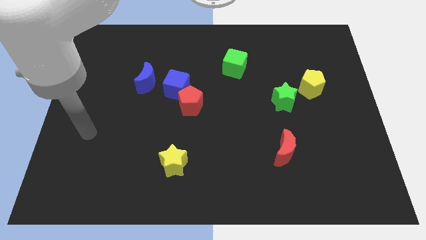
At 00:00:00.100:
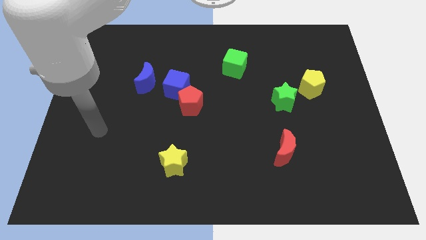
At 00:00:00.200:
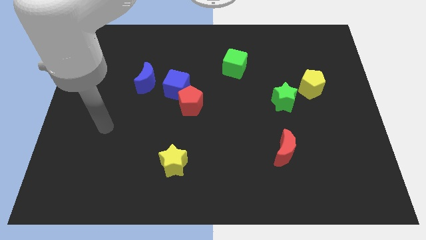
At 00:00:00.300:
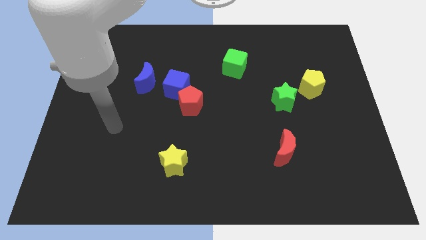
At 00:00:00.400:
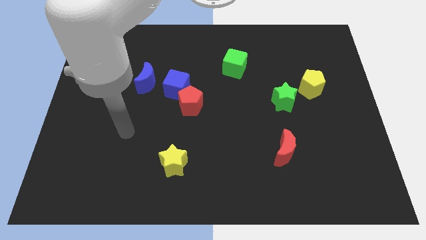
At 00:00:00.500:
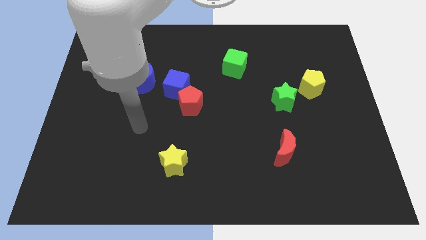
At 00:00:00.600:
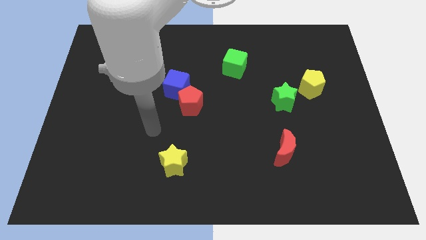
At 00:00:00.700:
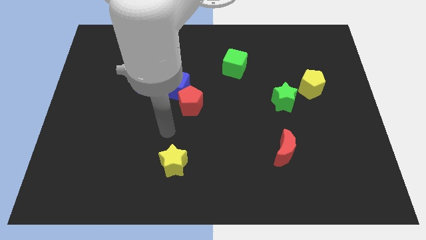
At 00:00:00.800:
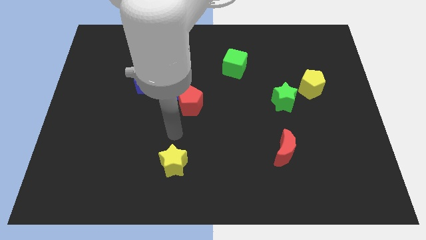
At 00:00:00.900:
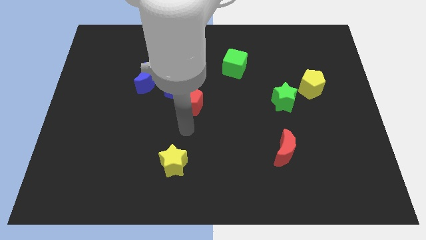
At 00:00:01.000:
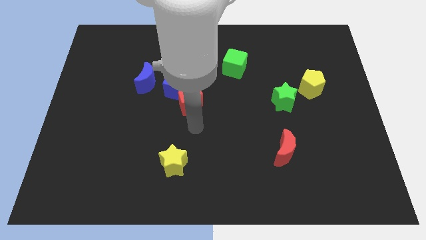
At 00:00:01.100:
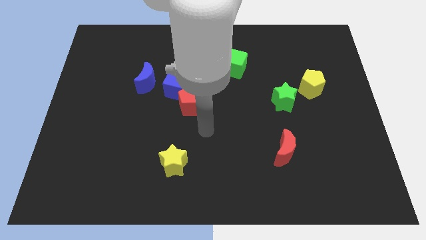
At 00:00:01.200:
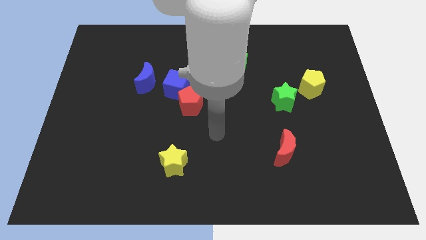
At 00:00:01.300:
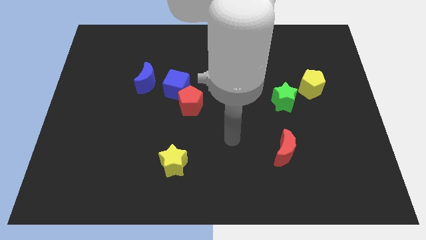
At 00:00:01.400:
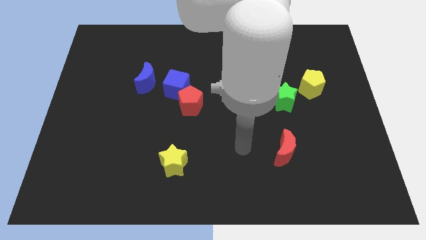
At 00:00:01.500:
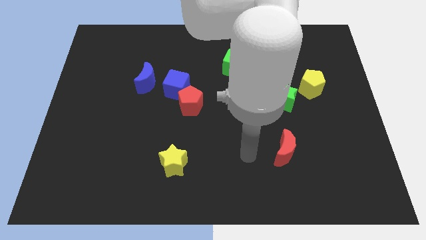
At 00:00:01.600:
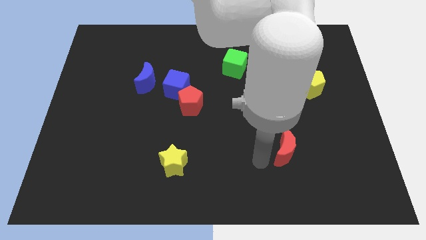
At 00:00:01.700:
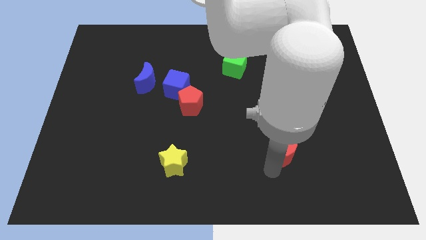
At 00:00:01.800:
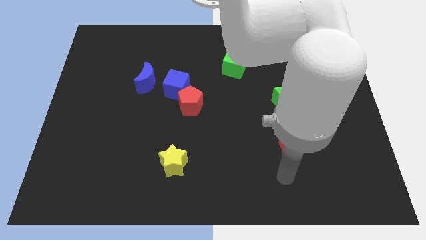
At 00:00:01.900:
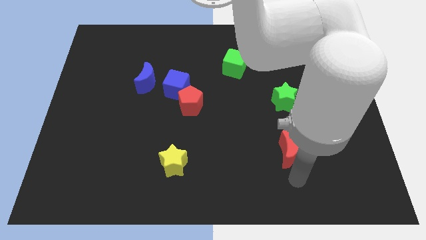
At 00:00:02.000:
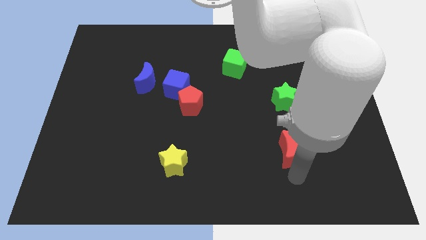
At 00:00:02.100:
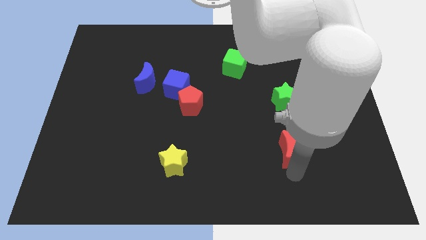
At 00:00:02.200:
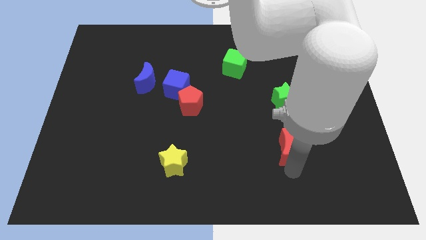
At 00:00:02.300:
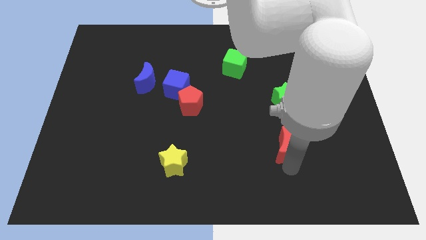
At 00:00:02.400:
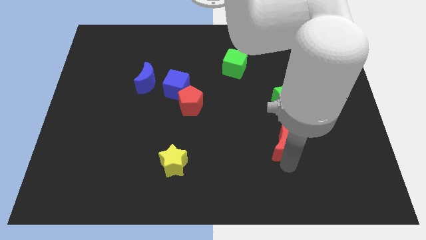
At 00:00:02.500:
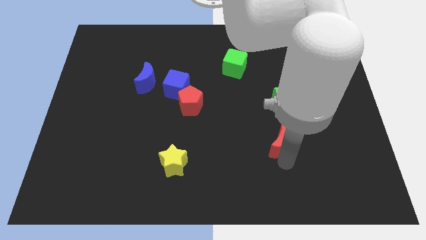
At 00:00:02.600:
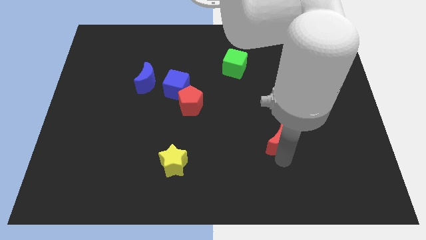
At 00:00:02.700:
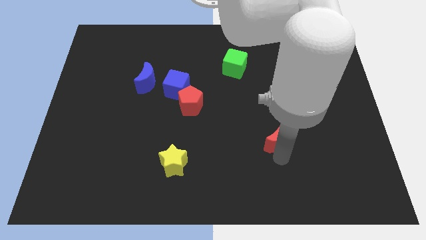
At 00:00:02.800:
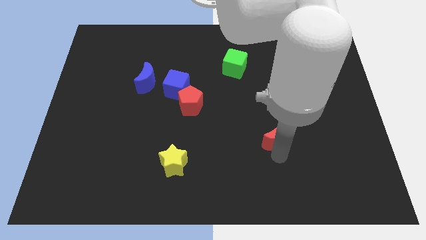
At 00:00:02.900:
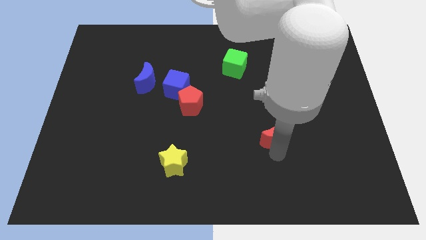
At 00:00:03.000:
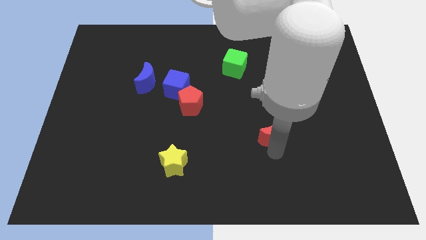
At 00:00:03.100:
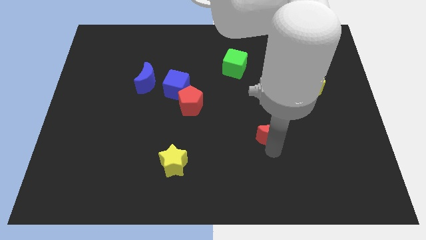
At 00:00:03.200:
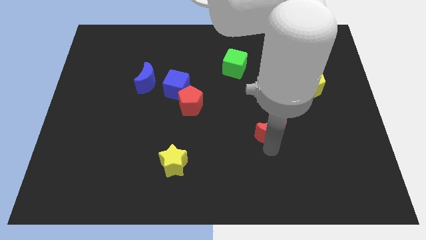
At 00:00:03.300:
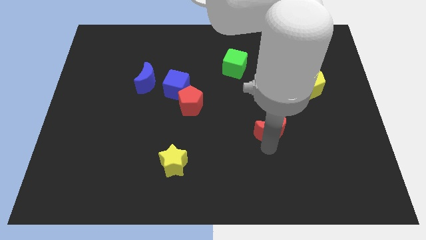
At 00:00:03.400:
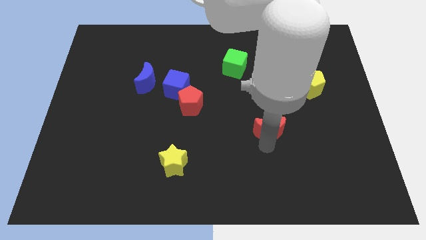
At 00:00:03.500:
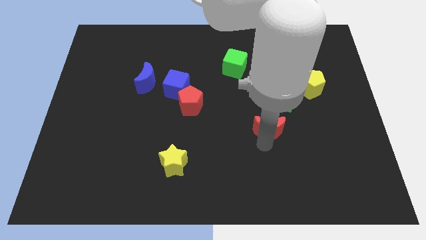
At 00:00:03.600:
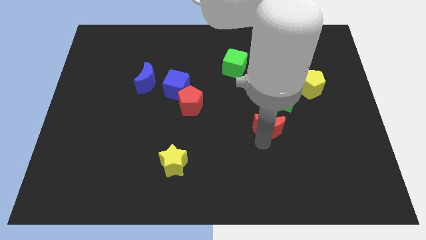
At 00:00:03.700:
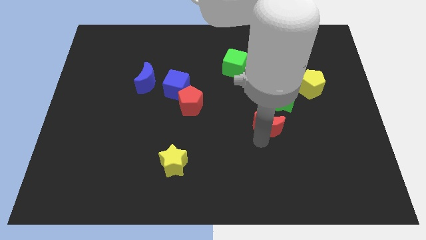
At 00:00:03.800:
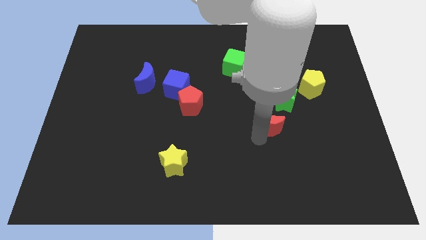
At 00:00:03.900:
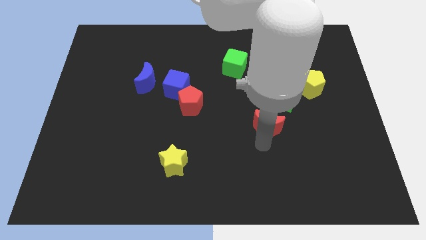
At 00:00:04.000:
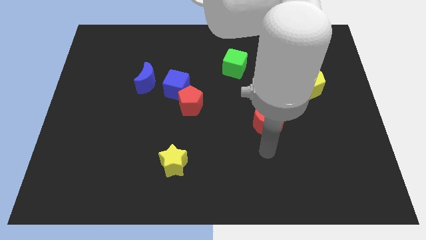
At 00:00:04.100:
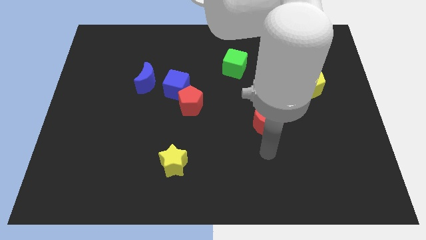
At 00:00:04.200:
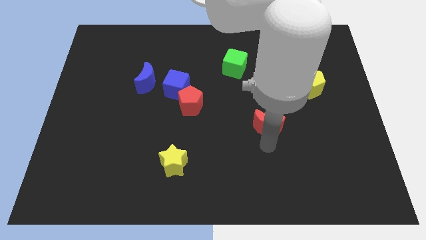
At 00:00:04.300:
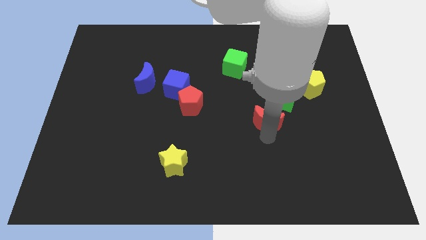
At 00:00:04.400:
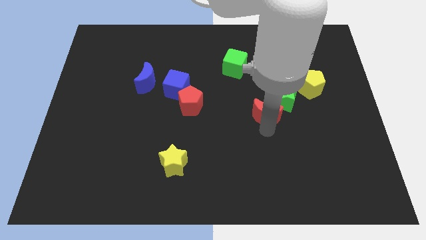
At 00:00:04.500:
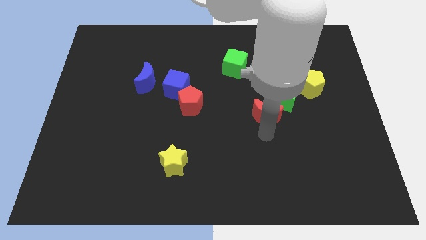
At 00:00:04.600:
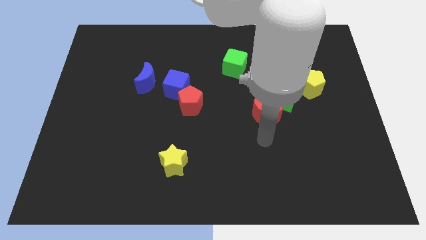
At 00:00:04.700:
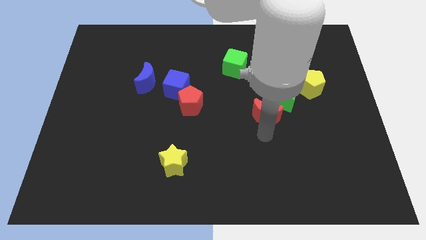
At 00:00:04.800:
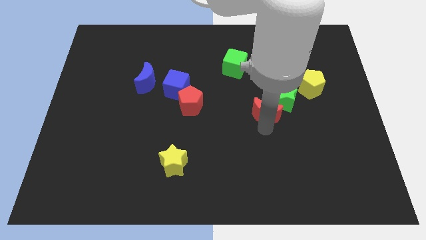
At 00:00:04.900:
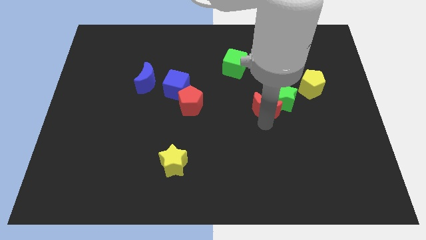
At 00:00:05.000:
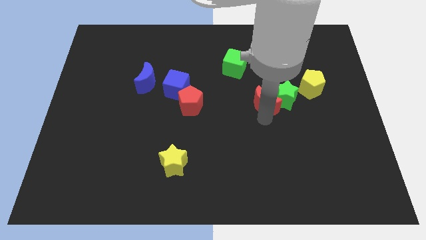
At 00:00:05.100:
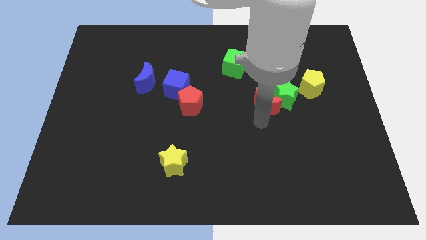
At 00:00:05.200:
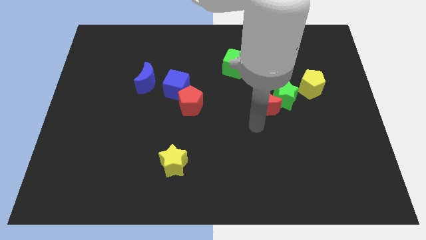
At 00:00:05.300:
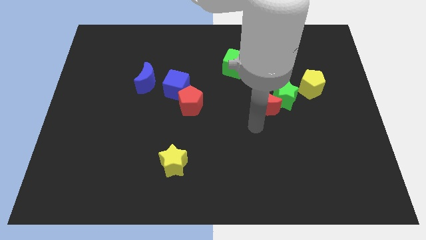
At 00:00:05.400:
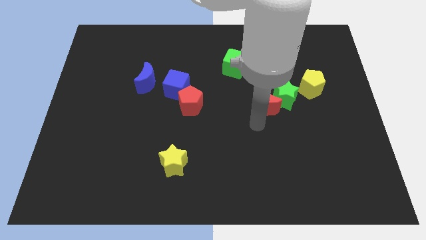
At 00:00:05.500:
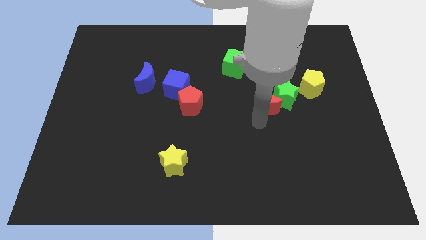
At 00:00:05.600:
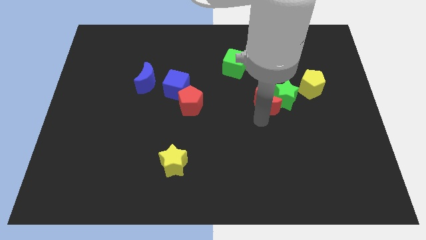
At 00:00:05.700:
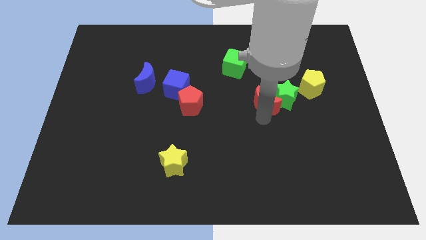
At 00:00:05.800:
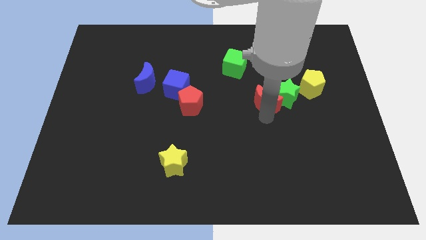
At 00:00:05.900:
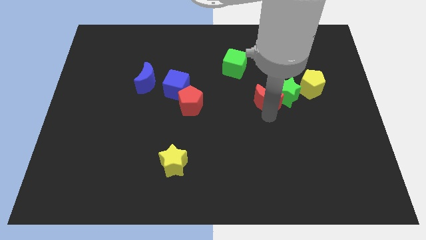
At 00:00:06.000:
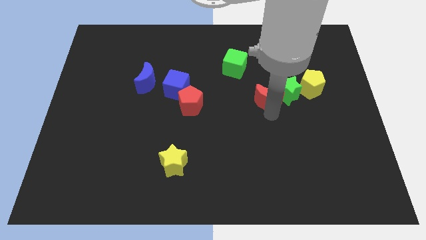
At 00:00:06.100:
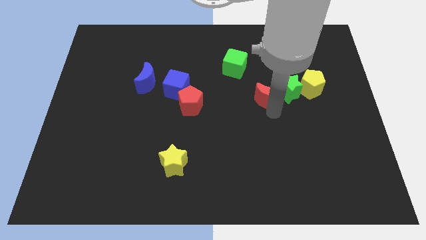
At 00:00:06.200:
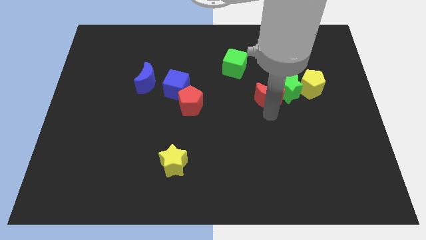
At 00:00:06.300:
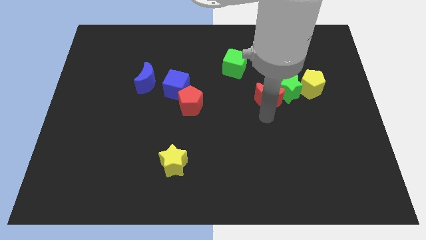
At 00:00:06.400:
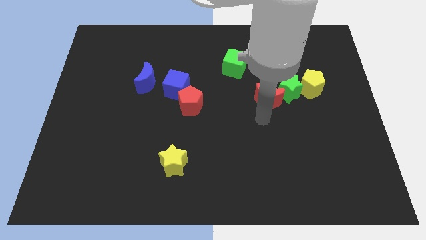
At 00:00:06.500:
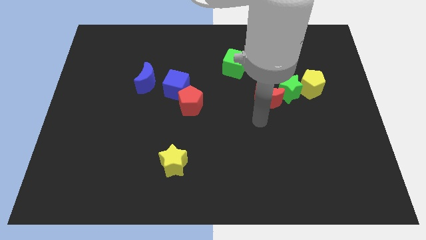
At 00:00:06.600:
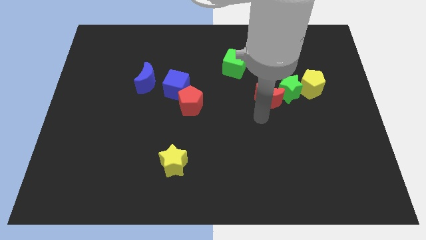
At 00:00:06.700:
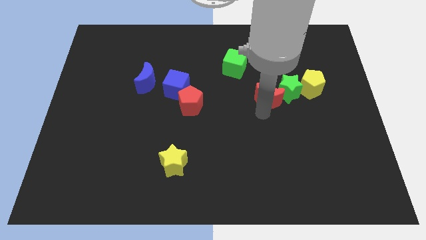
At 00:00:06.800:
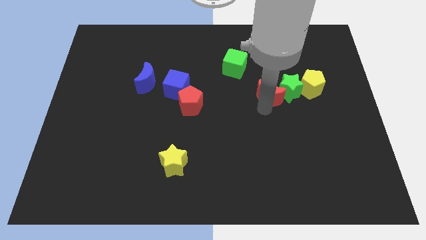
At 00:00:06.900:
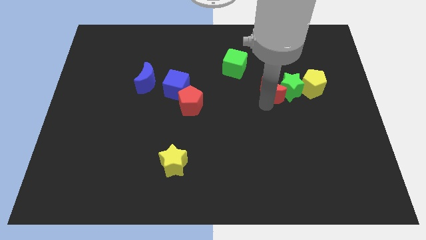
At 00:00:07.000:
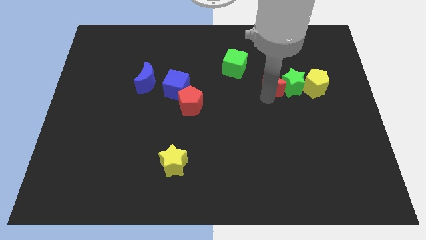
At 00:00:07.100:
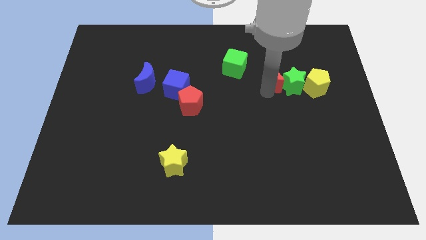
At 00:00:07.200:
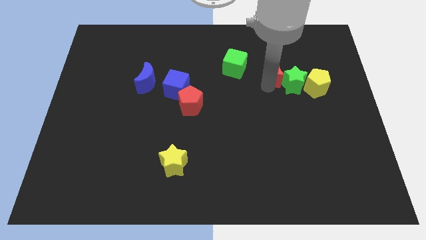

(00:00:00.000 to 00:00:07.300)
put the red moon to the top left of the yellow pentagon
